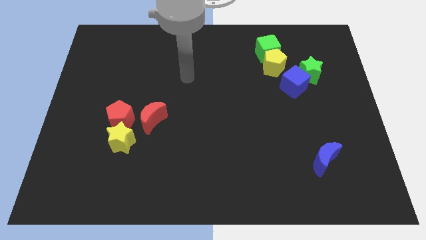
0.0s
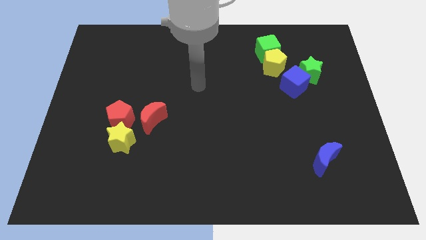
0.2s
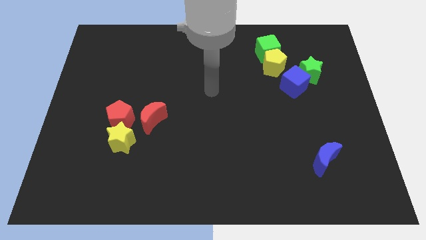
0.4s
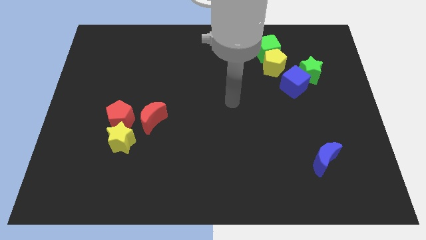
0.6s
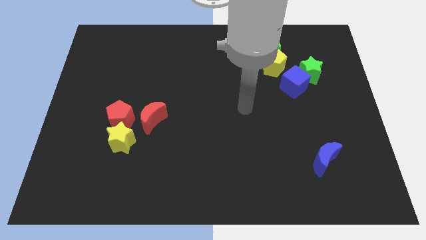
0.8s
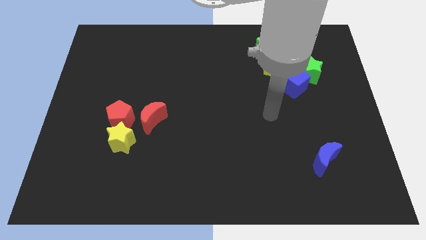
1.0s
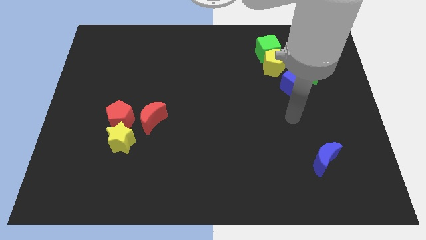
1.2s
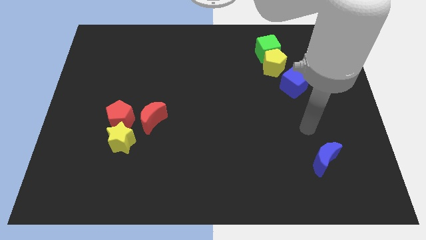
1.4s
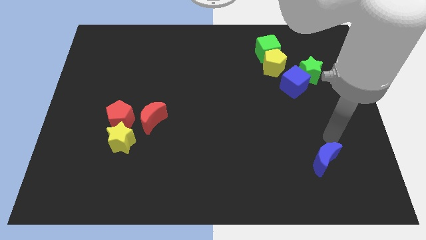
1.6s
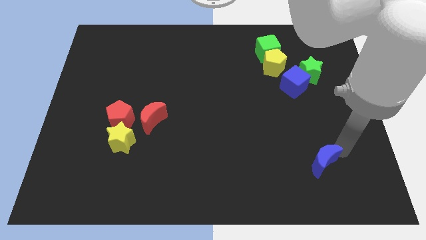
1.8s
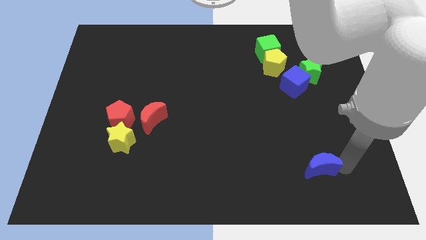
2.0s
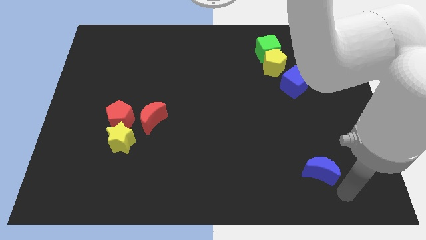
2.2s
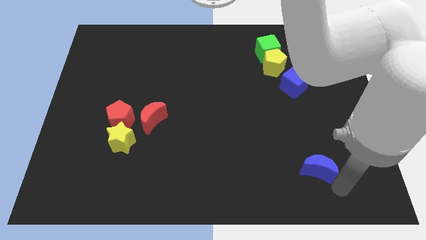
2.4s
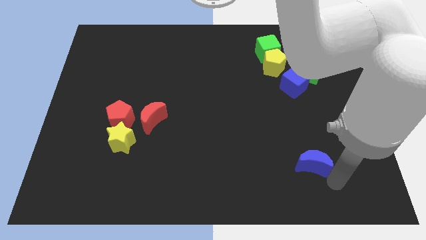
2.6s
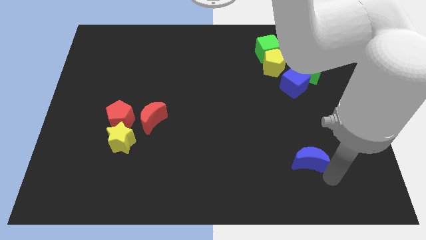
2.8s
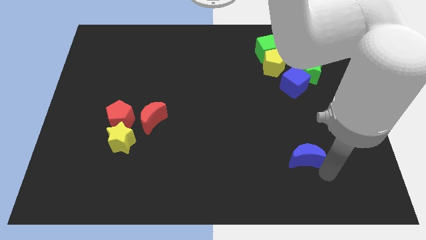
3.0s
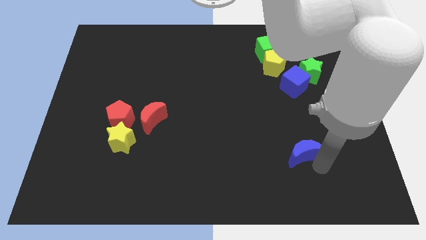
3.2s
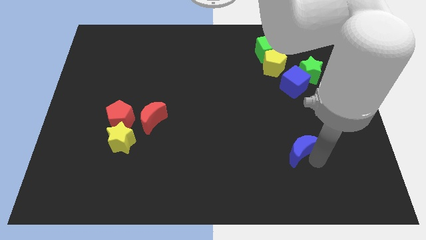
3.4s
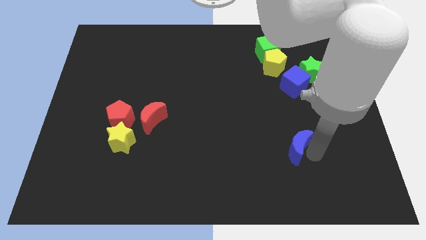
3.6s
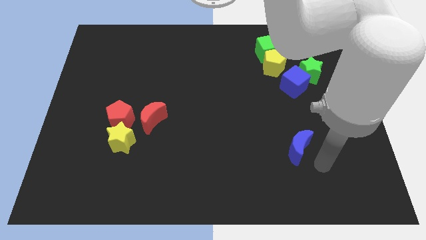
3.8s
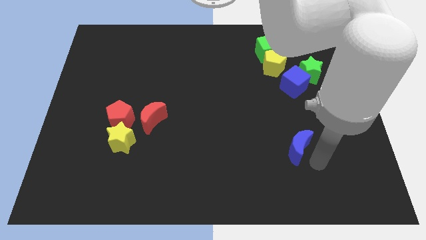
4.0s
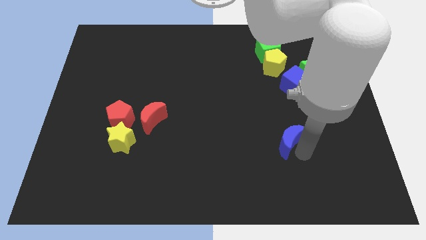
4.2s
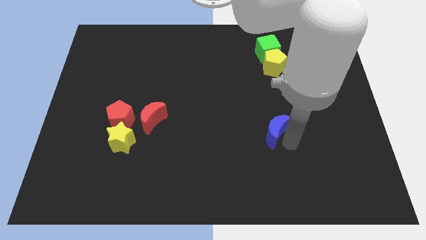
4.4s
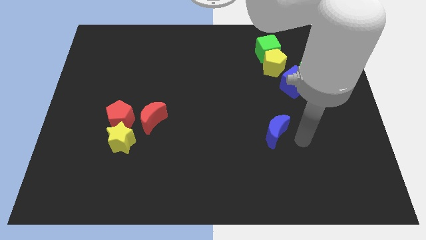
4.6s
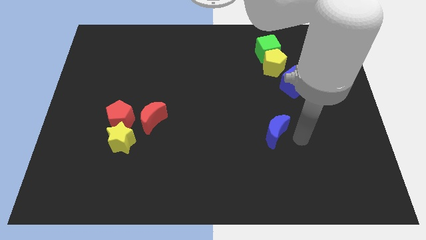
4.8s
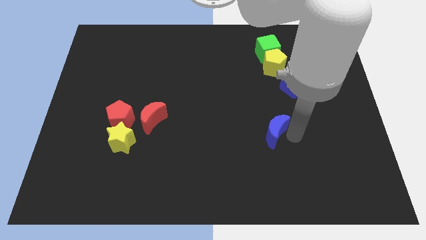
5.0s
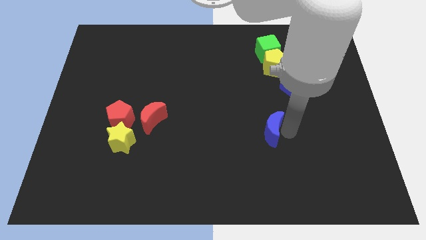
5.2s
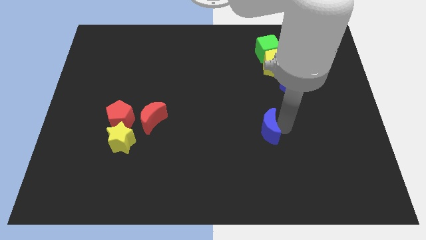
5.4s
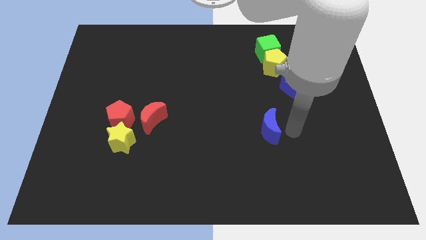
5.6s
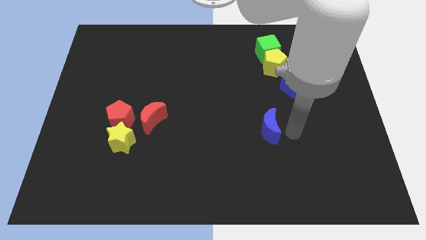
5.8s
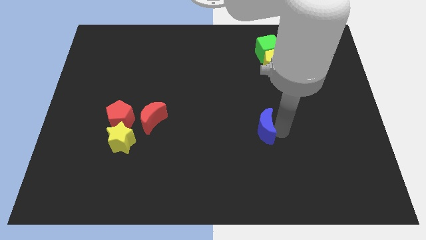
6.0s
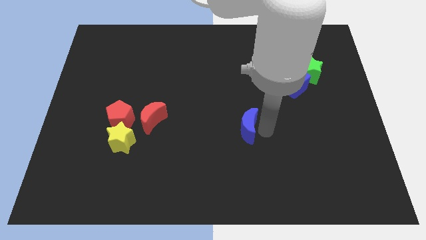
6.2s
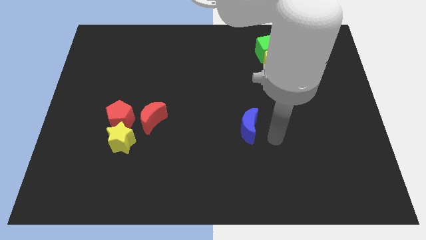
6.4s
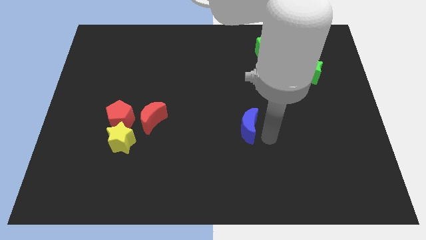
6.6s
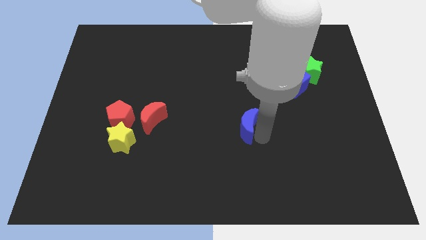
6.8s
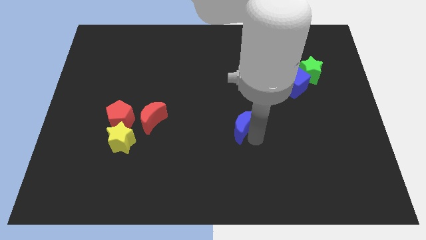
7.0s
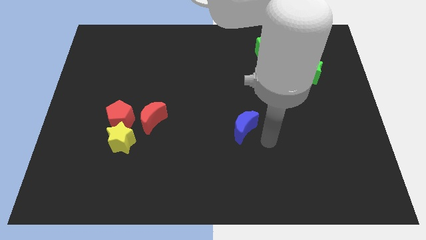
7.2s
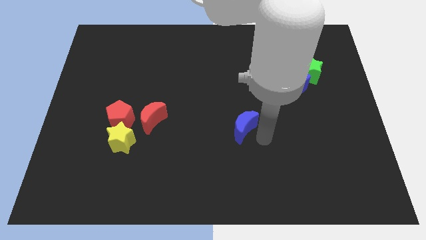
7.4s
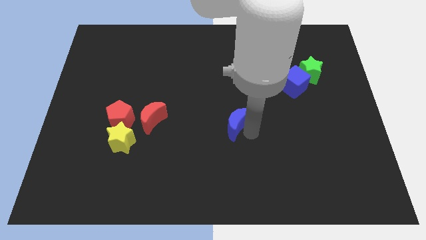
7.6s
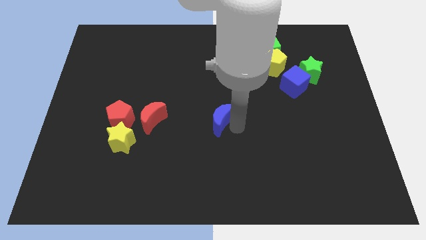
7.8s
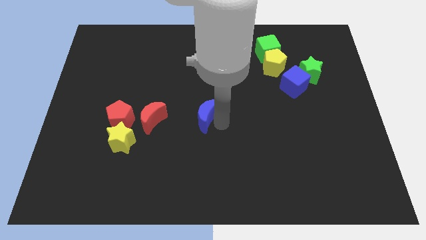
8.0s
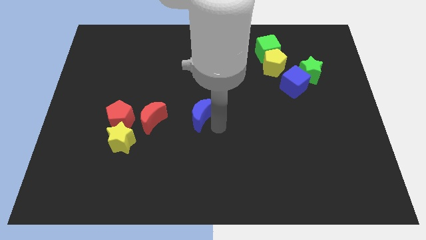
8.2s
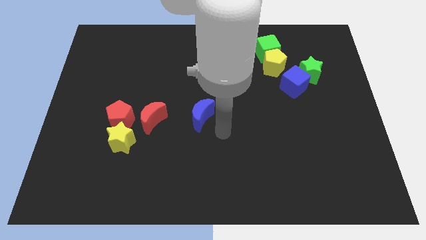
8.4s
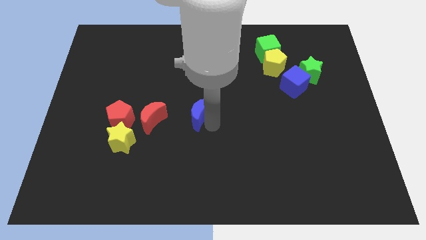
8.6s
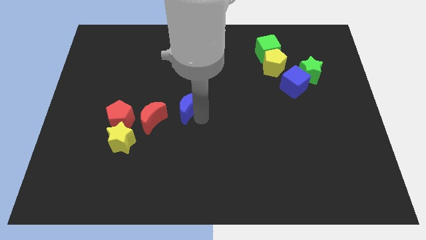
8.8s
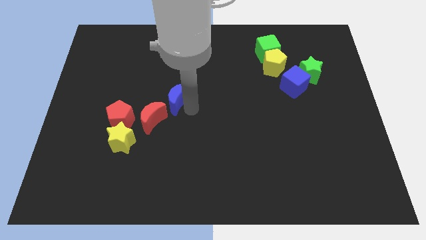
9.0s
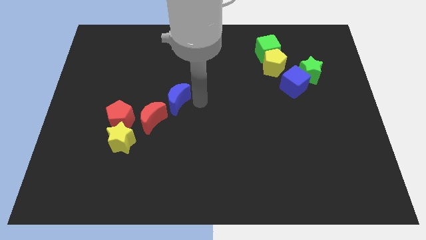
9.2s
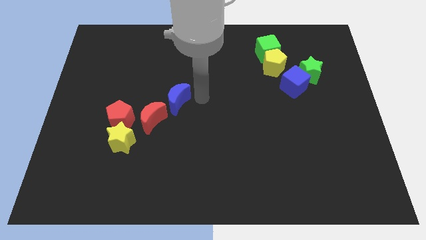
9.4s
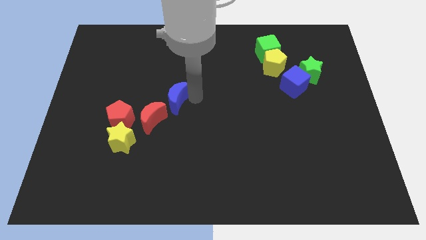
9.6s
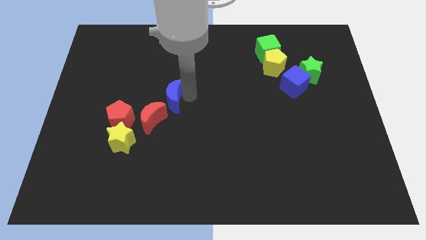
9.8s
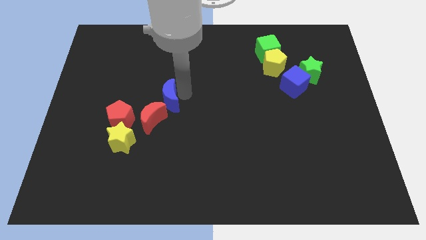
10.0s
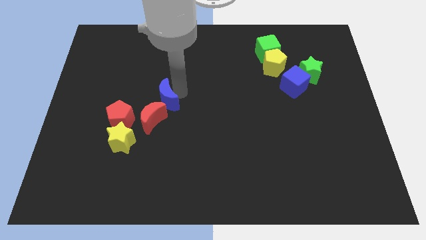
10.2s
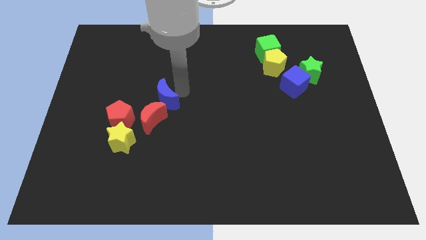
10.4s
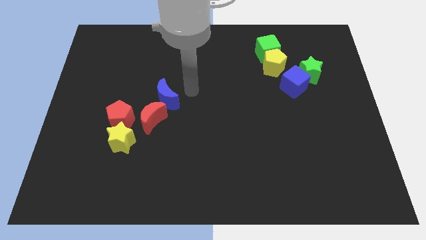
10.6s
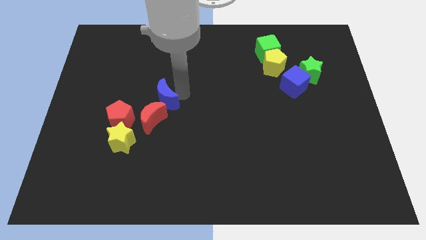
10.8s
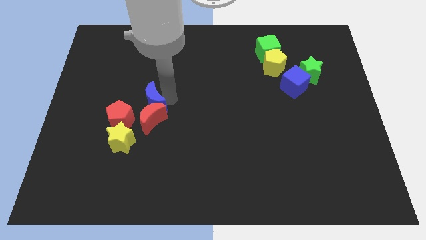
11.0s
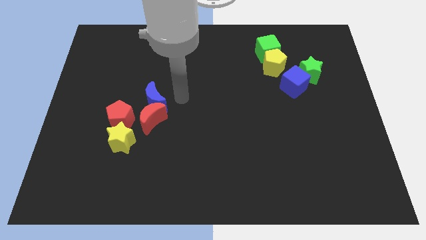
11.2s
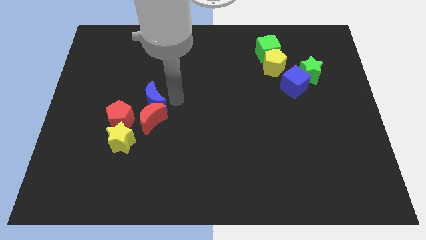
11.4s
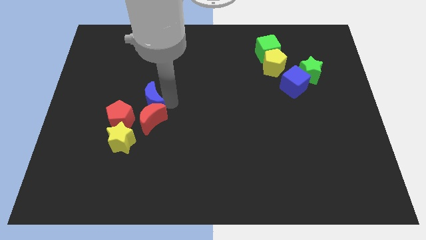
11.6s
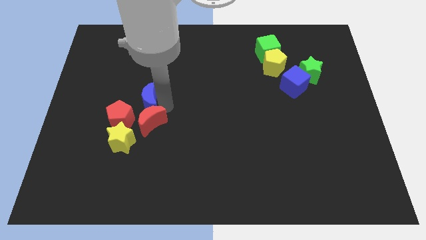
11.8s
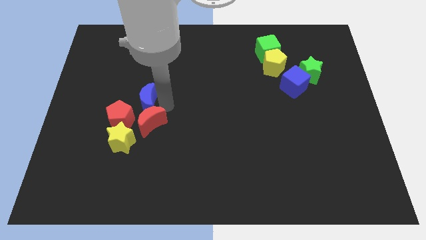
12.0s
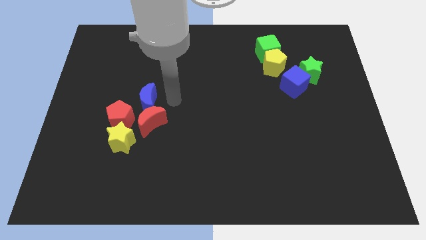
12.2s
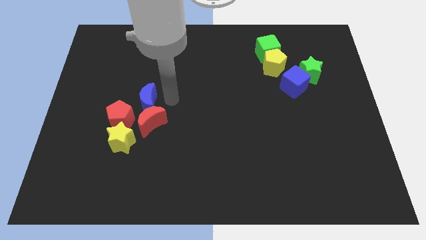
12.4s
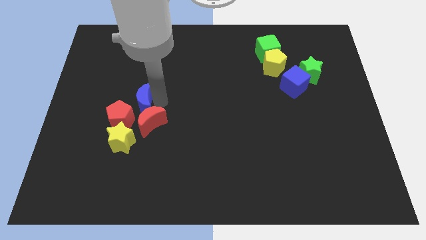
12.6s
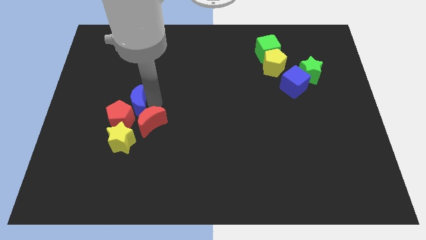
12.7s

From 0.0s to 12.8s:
put the blue moon next to the red pentagon
